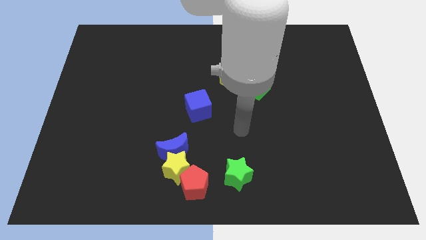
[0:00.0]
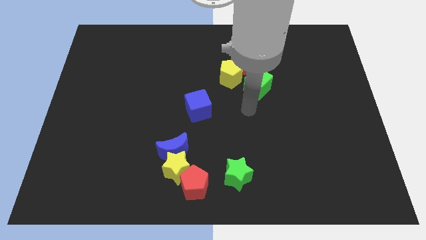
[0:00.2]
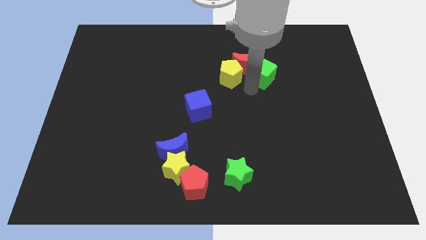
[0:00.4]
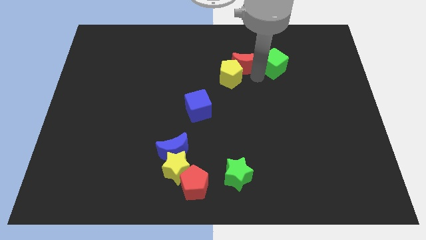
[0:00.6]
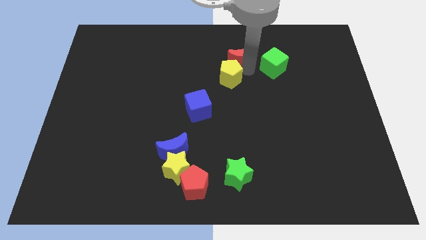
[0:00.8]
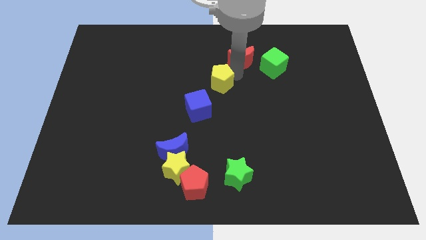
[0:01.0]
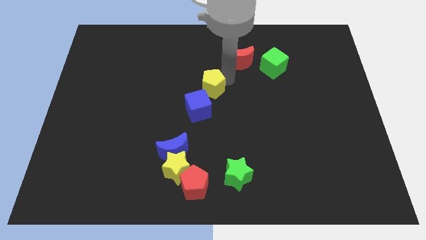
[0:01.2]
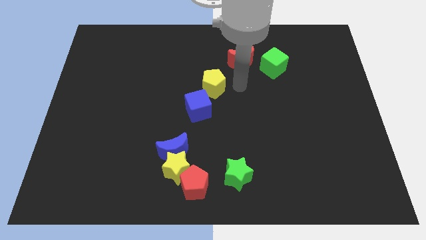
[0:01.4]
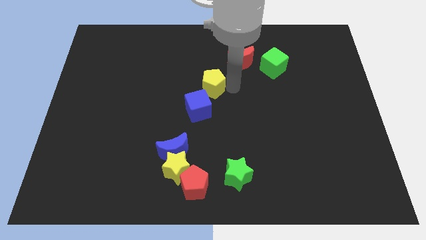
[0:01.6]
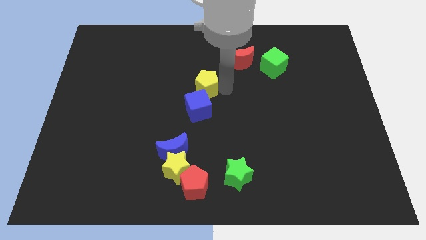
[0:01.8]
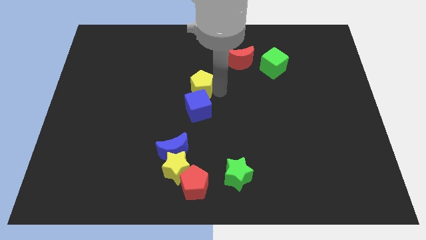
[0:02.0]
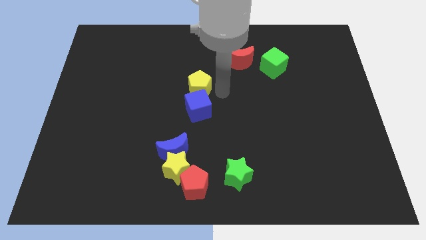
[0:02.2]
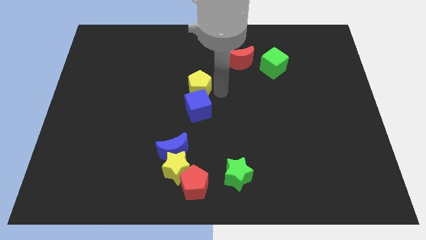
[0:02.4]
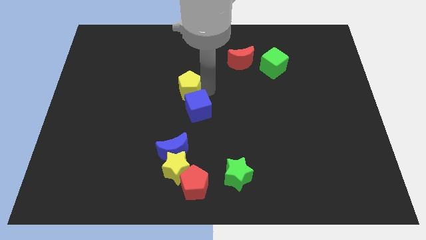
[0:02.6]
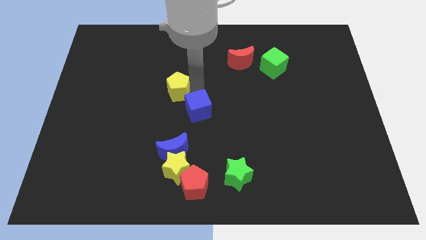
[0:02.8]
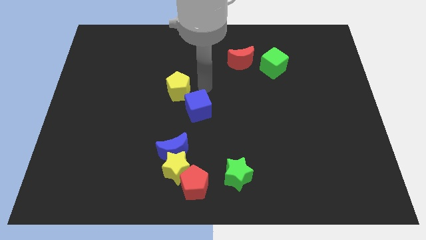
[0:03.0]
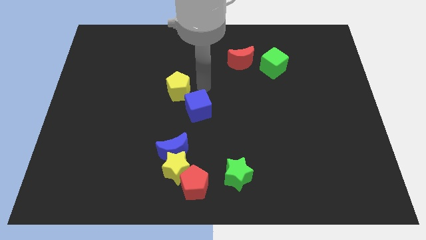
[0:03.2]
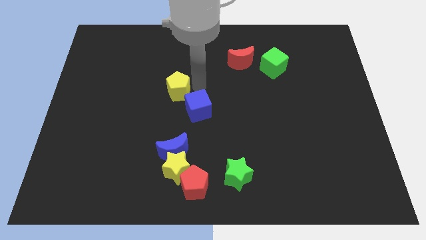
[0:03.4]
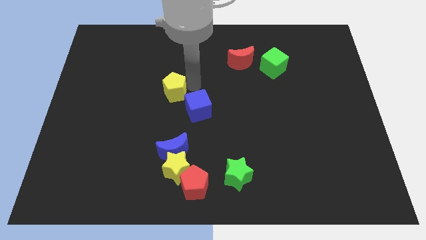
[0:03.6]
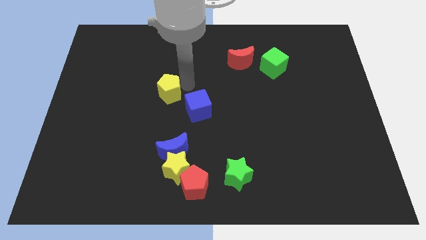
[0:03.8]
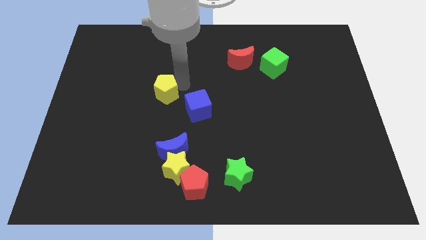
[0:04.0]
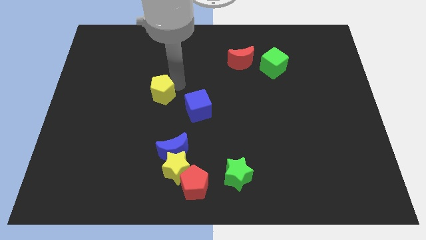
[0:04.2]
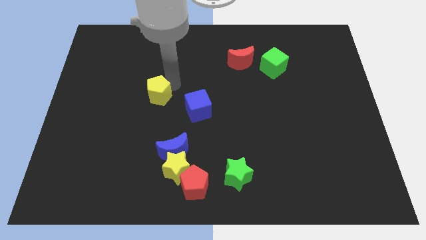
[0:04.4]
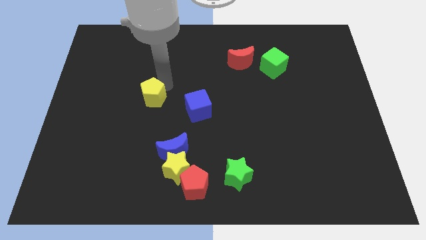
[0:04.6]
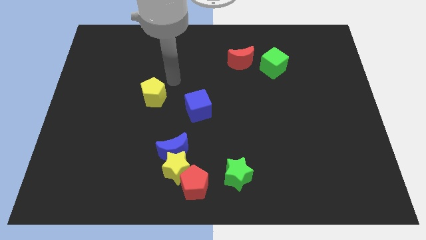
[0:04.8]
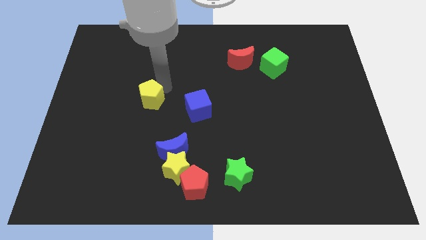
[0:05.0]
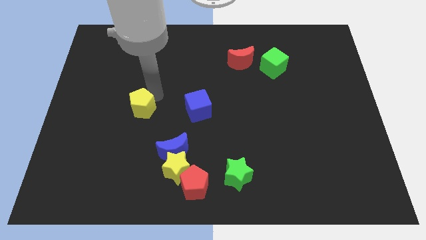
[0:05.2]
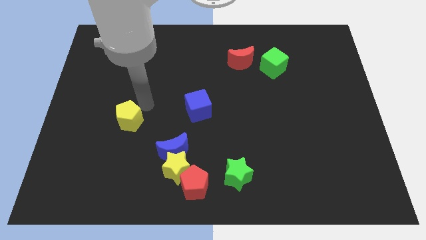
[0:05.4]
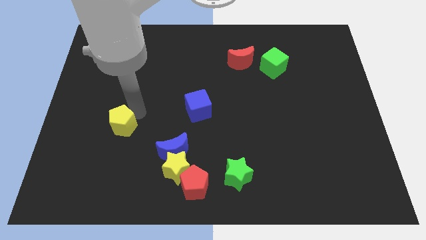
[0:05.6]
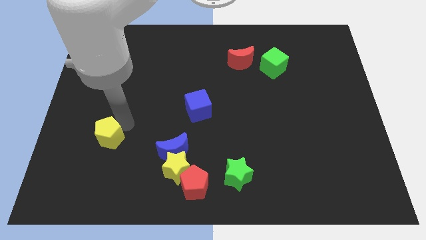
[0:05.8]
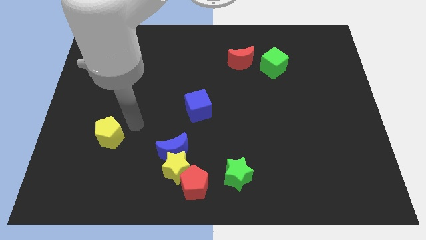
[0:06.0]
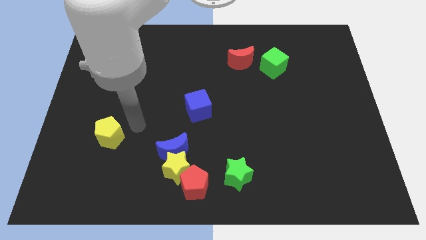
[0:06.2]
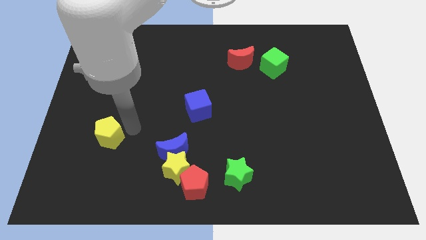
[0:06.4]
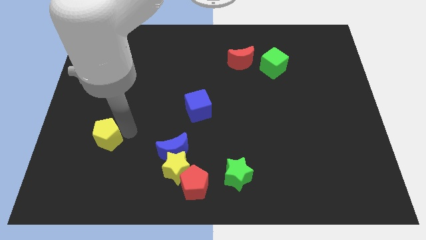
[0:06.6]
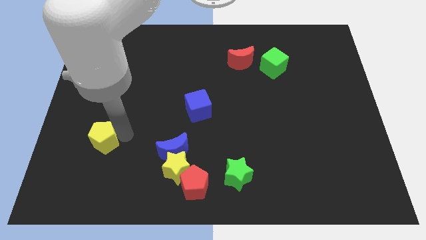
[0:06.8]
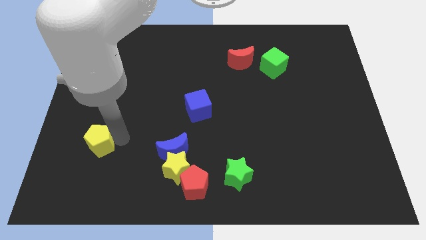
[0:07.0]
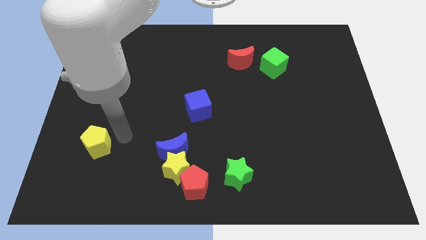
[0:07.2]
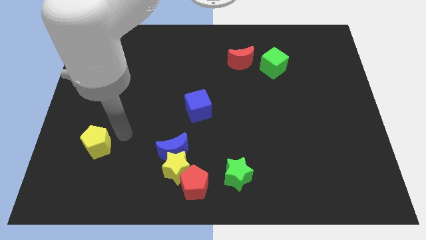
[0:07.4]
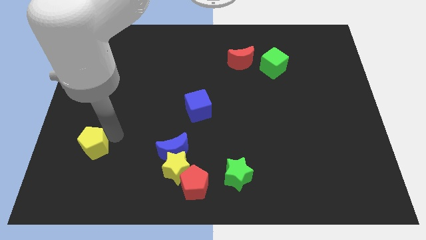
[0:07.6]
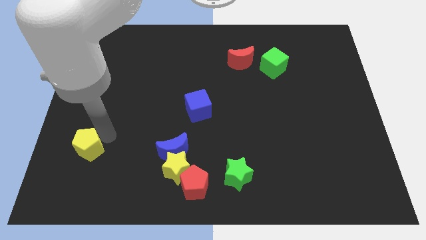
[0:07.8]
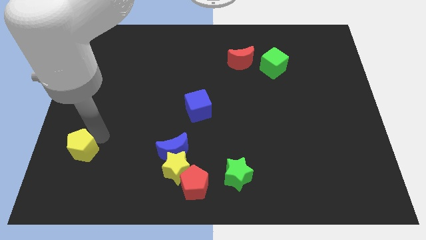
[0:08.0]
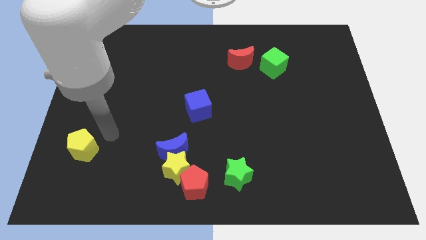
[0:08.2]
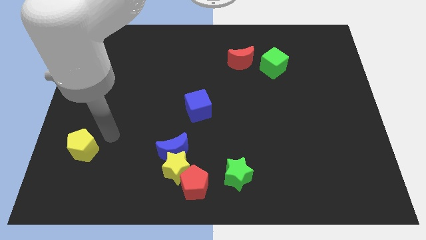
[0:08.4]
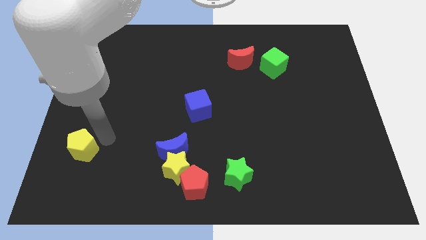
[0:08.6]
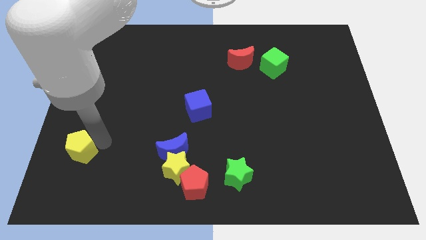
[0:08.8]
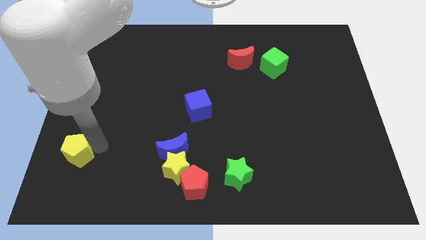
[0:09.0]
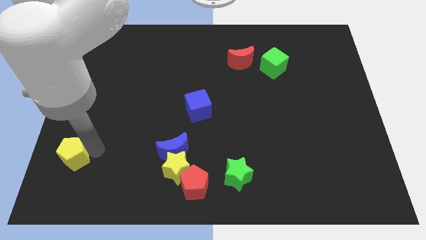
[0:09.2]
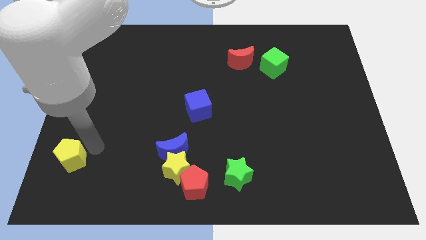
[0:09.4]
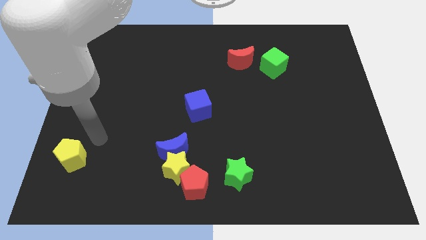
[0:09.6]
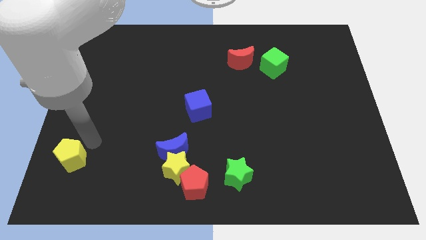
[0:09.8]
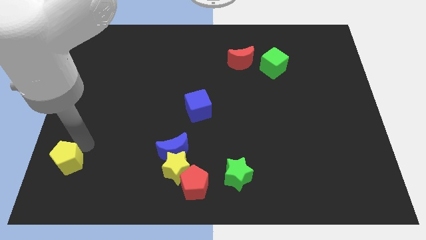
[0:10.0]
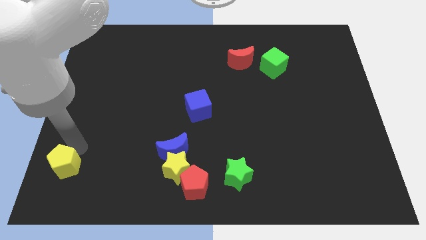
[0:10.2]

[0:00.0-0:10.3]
move the yellow pentagon to the bottom left

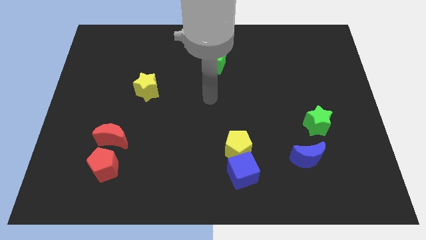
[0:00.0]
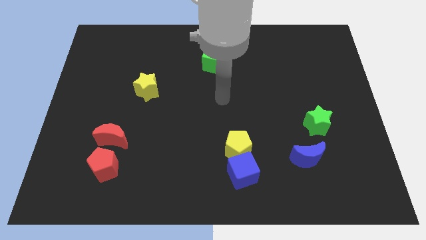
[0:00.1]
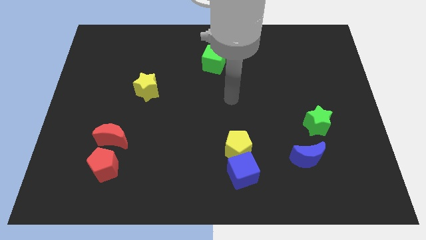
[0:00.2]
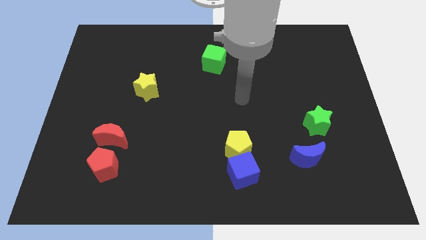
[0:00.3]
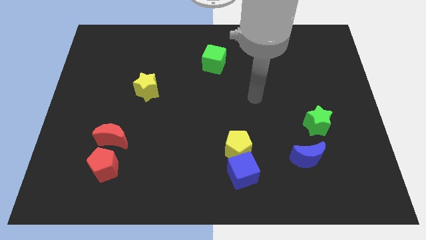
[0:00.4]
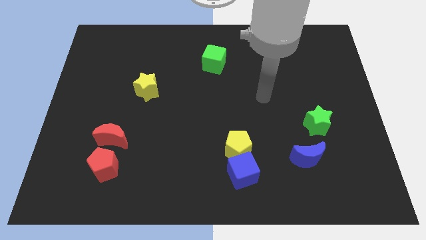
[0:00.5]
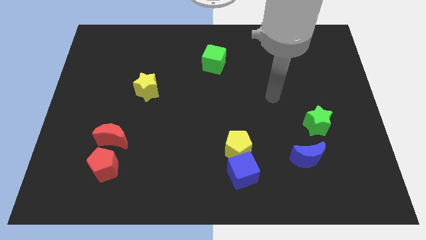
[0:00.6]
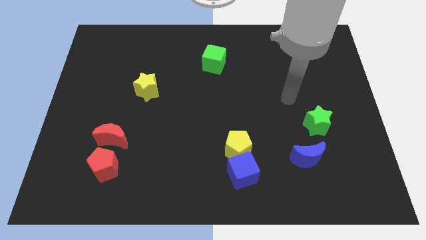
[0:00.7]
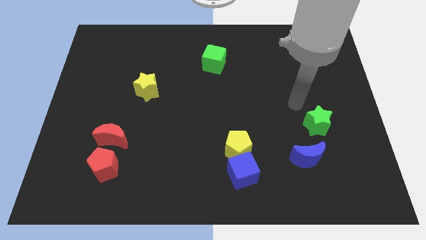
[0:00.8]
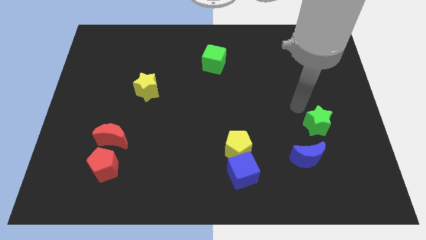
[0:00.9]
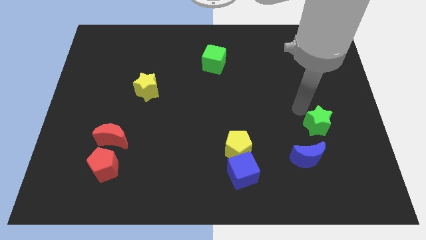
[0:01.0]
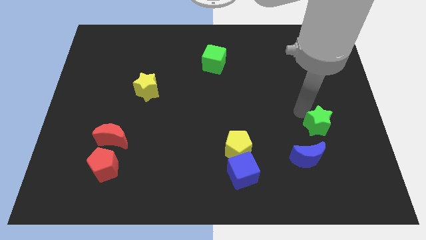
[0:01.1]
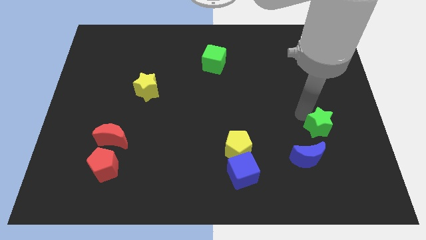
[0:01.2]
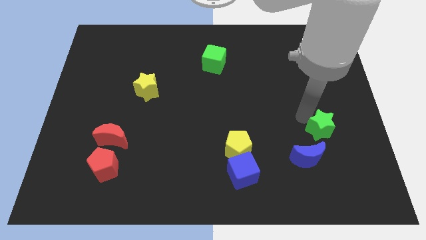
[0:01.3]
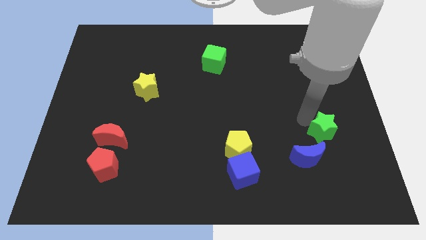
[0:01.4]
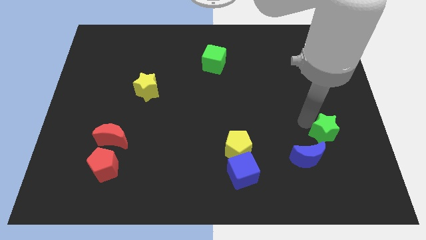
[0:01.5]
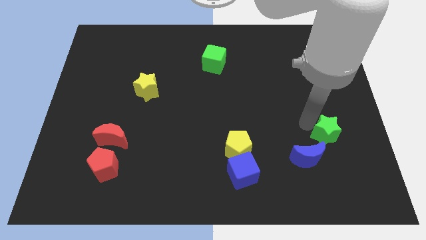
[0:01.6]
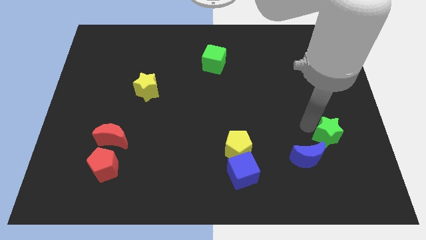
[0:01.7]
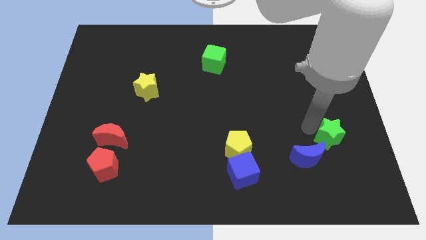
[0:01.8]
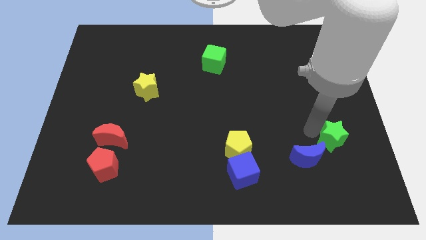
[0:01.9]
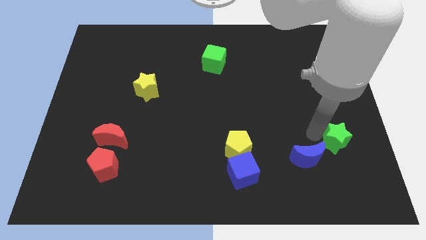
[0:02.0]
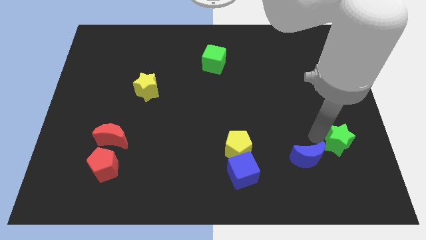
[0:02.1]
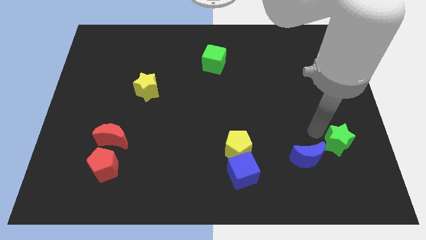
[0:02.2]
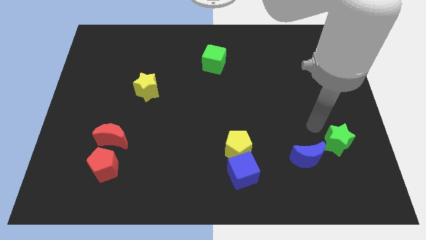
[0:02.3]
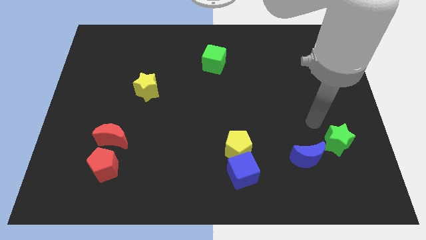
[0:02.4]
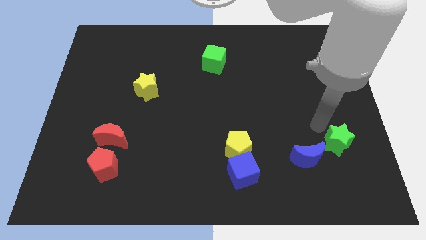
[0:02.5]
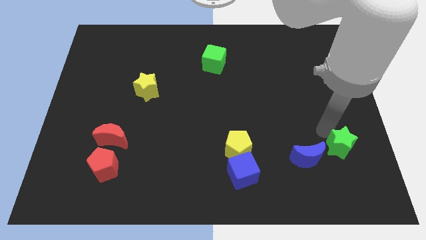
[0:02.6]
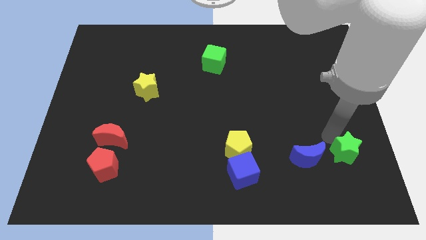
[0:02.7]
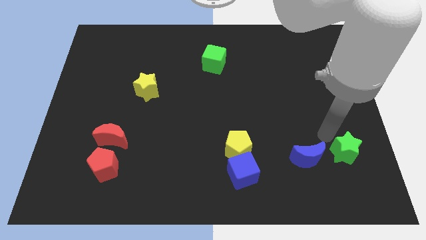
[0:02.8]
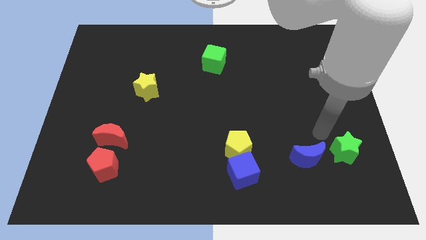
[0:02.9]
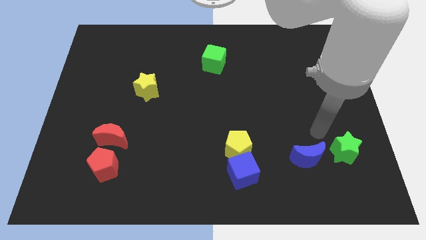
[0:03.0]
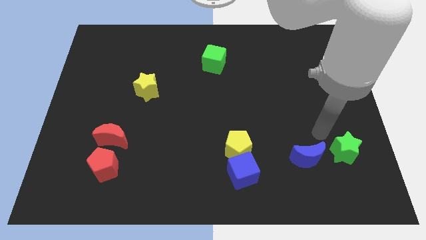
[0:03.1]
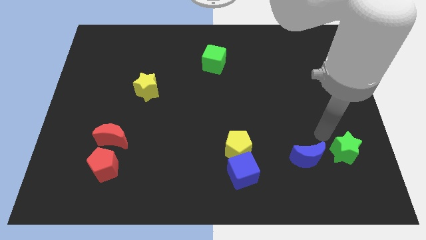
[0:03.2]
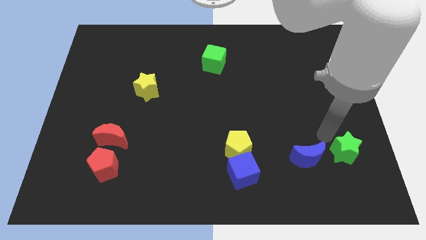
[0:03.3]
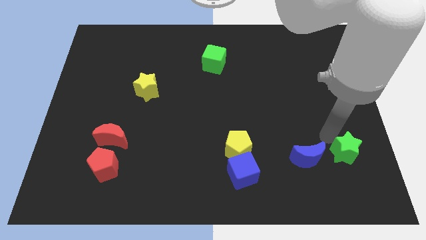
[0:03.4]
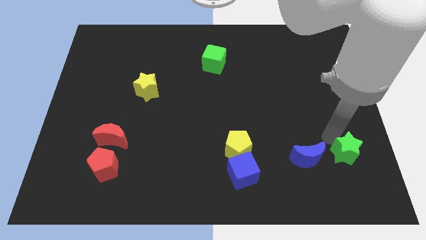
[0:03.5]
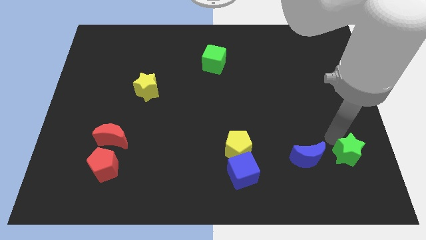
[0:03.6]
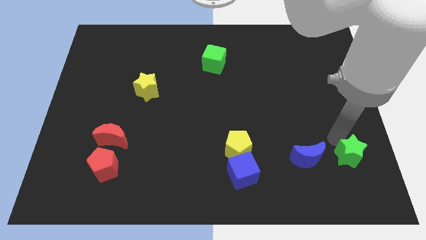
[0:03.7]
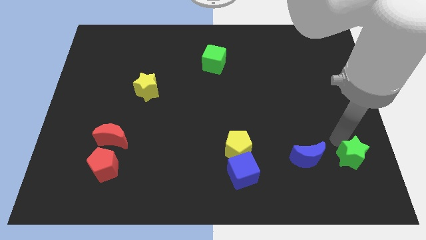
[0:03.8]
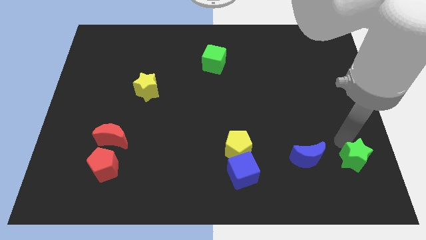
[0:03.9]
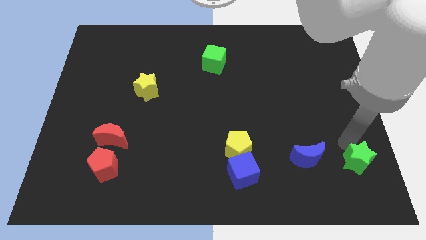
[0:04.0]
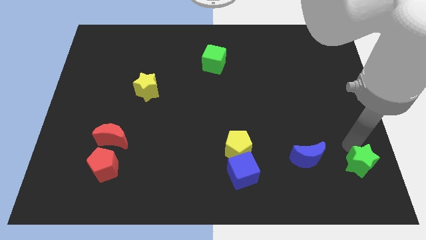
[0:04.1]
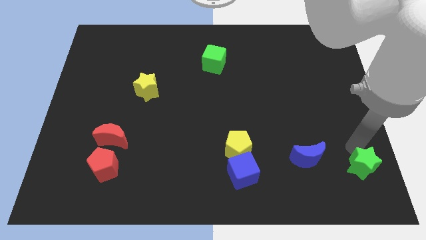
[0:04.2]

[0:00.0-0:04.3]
put the green star to the bottom right of the board
